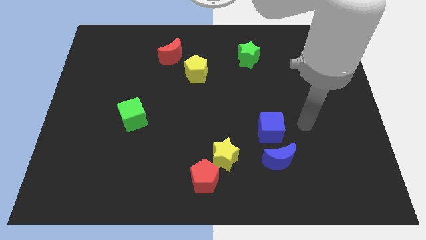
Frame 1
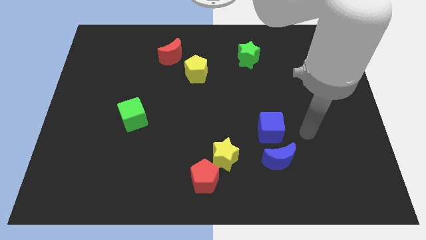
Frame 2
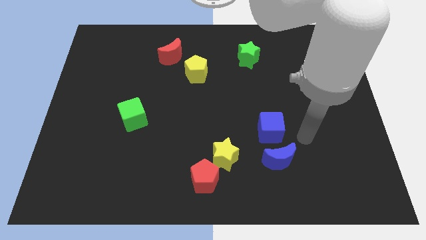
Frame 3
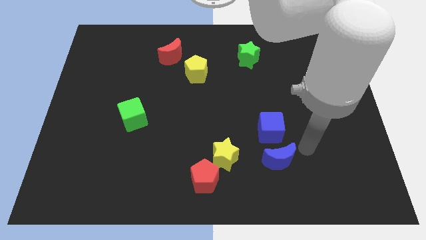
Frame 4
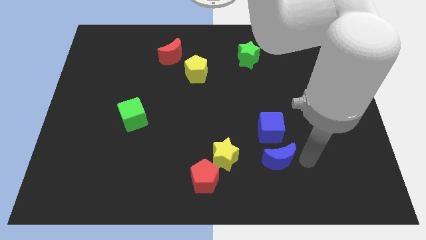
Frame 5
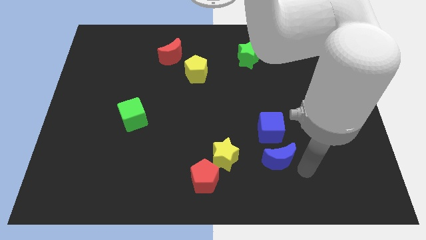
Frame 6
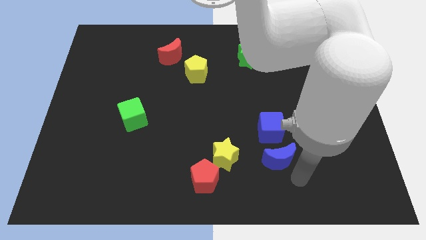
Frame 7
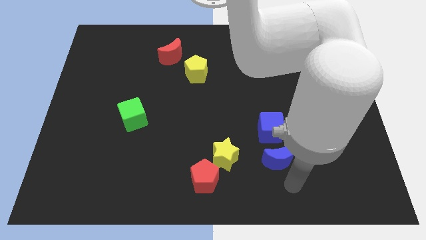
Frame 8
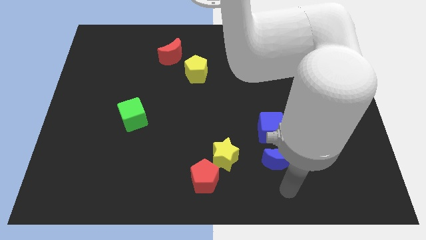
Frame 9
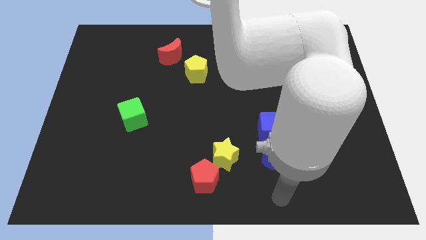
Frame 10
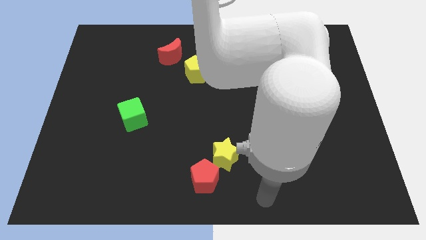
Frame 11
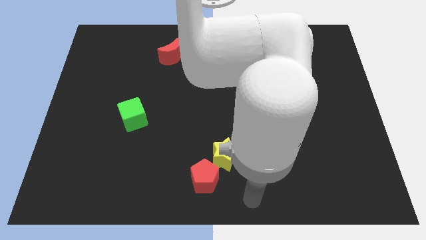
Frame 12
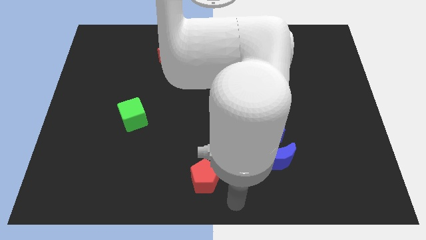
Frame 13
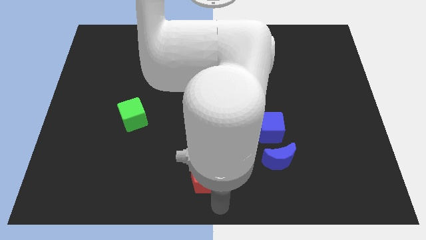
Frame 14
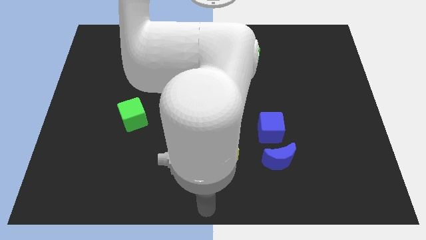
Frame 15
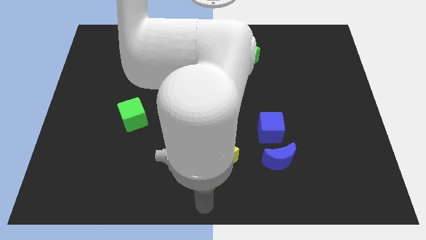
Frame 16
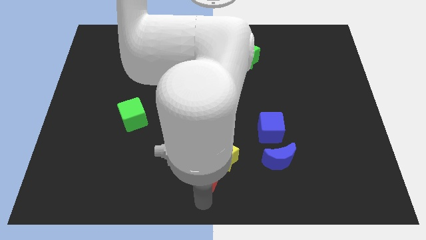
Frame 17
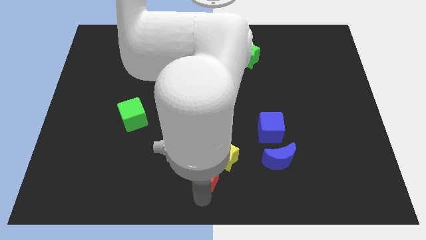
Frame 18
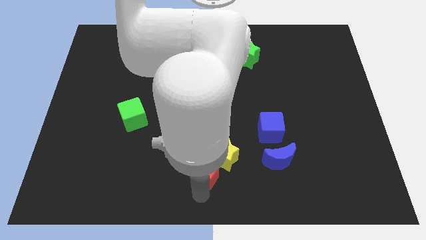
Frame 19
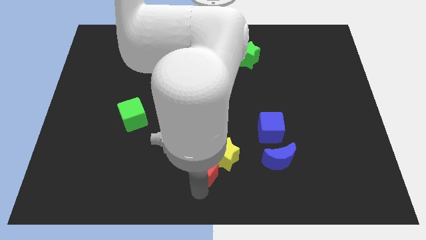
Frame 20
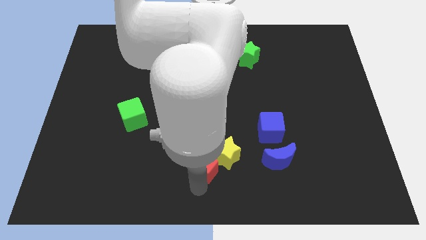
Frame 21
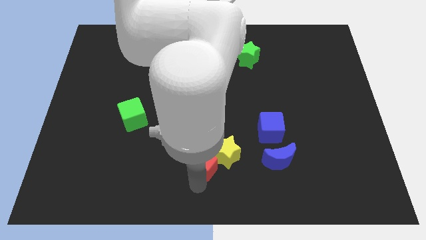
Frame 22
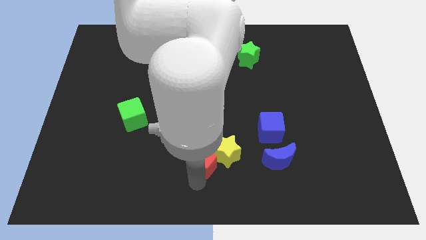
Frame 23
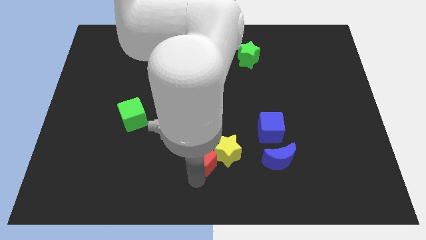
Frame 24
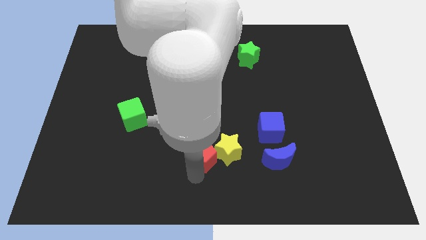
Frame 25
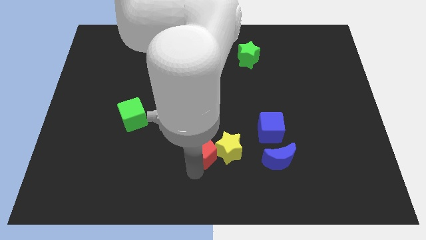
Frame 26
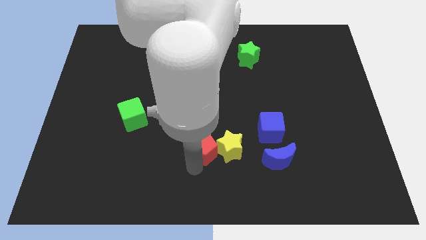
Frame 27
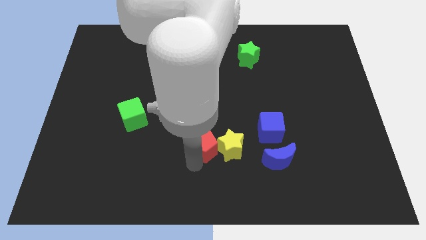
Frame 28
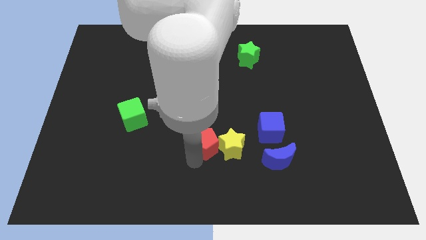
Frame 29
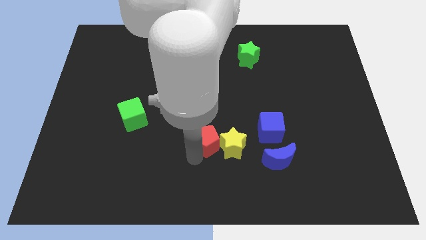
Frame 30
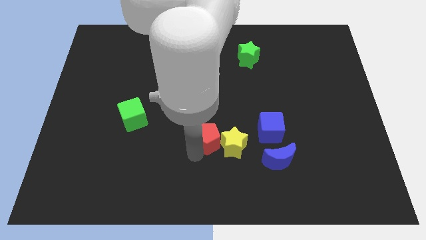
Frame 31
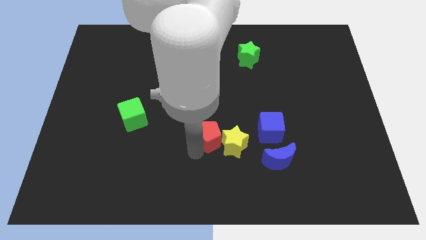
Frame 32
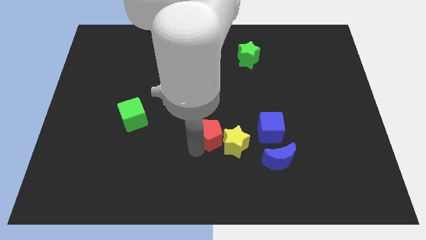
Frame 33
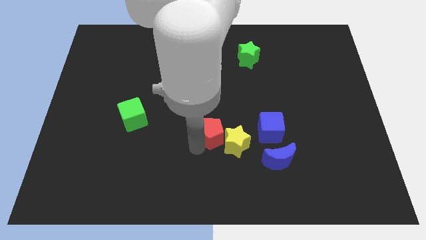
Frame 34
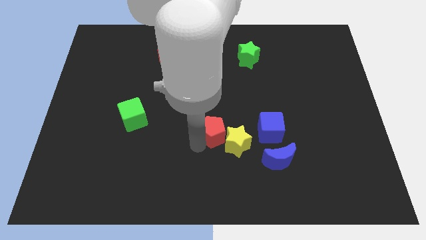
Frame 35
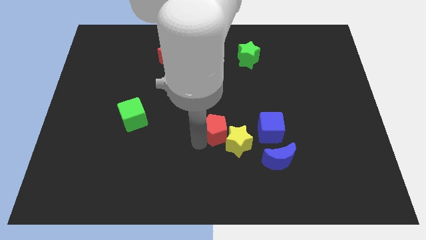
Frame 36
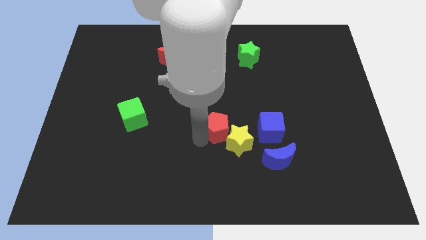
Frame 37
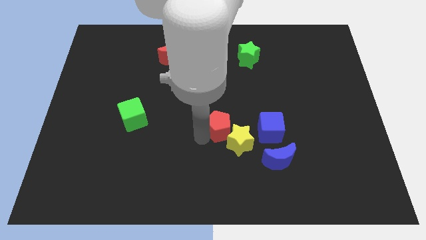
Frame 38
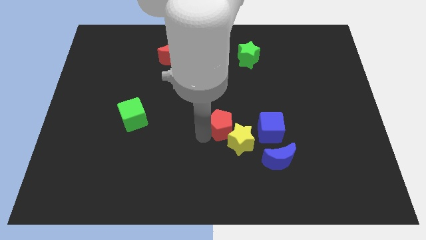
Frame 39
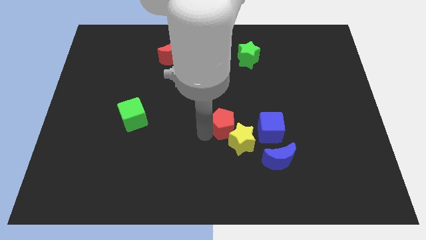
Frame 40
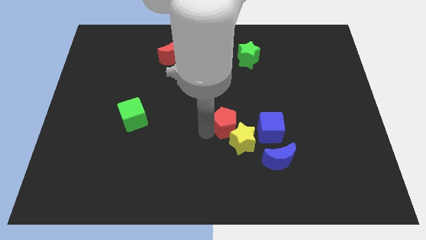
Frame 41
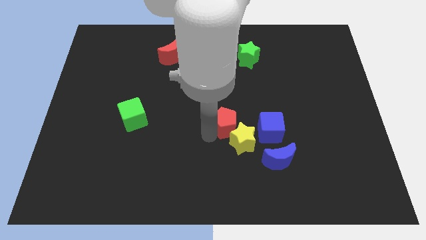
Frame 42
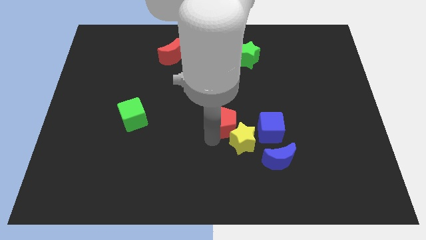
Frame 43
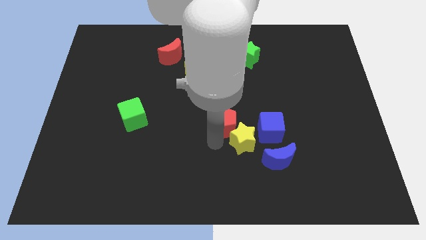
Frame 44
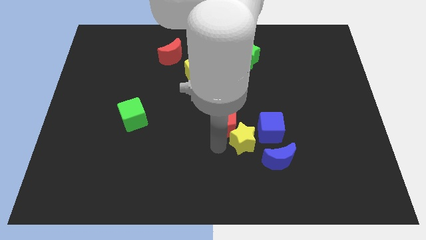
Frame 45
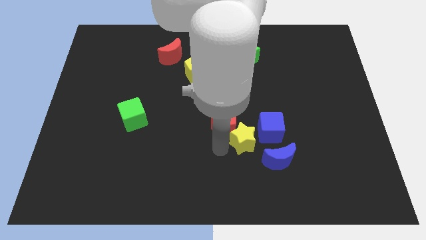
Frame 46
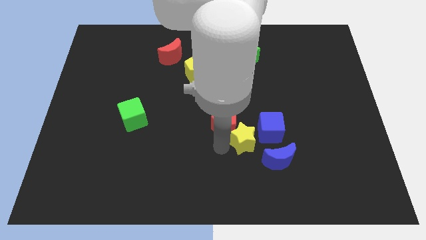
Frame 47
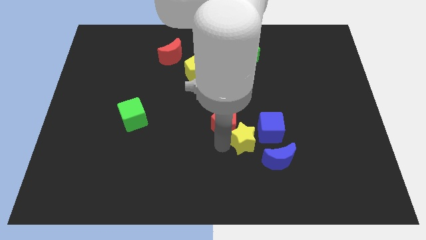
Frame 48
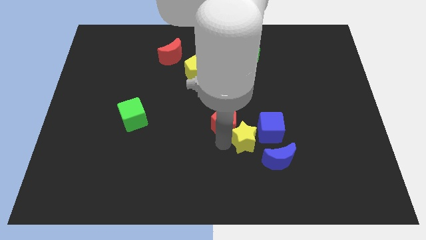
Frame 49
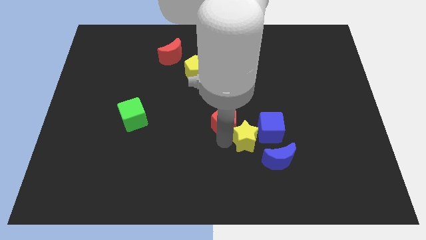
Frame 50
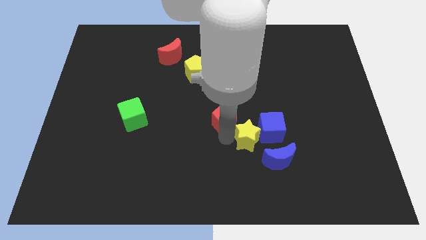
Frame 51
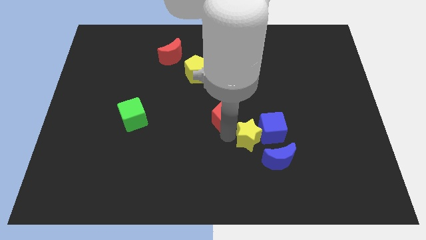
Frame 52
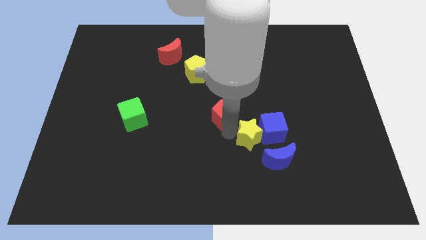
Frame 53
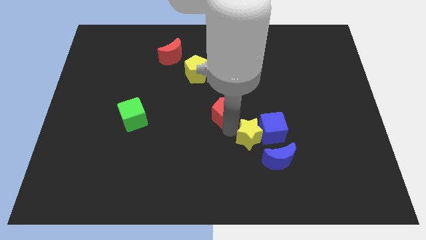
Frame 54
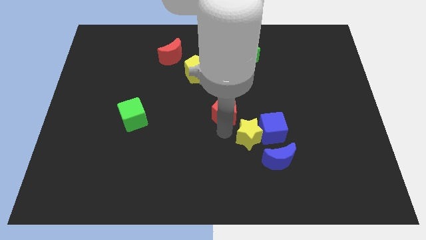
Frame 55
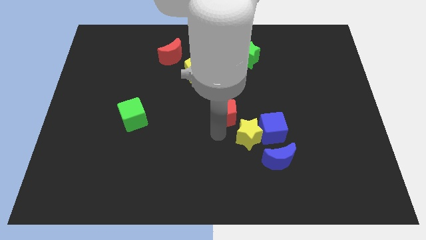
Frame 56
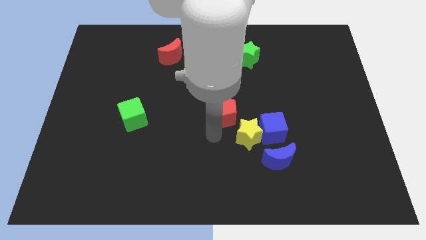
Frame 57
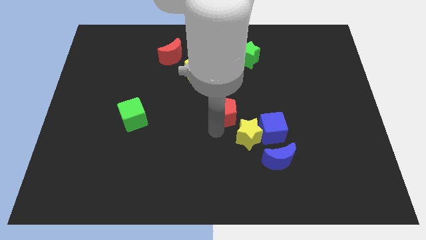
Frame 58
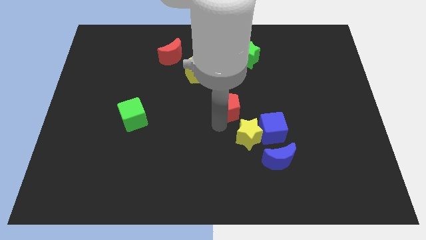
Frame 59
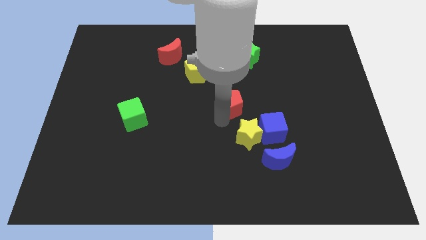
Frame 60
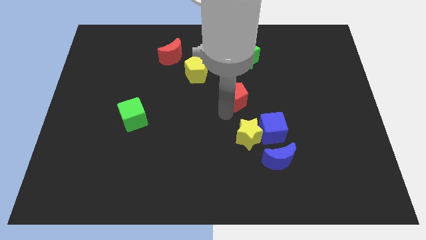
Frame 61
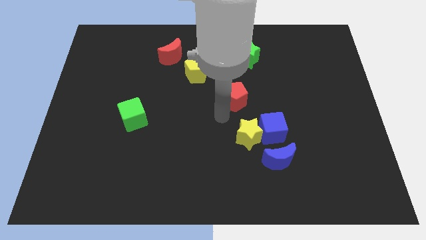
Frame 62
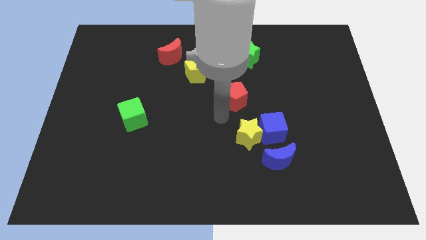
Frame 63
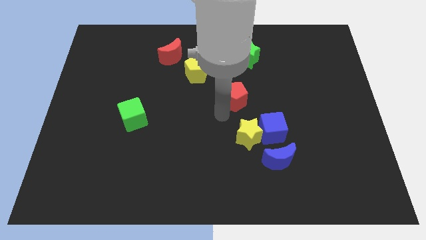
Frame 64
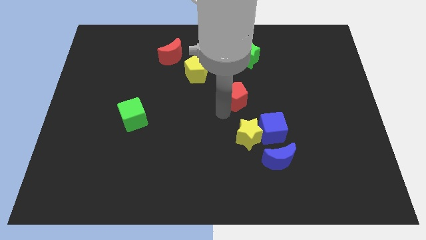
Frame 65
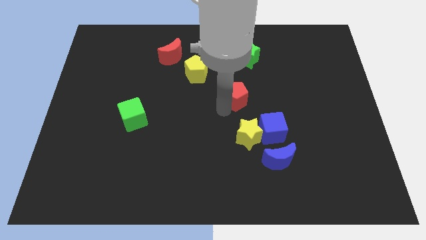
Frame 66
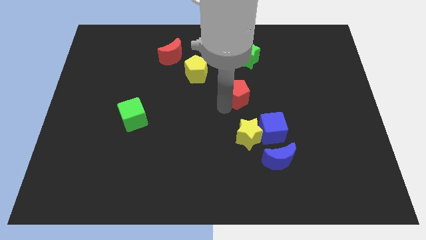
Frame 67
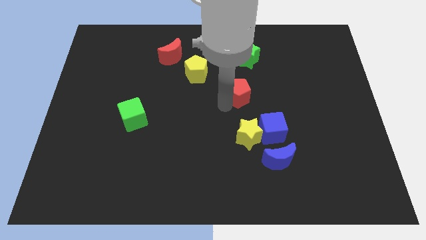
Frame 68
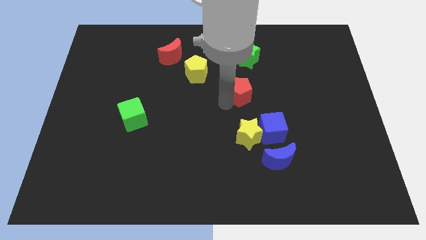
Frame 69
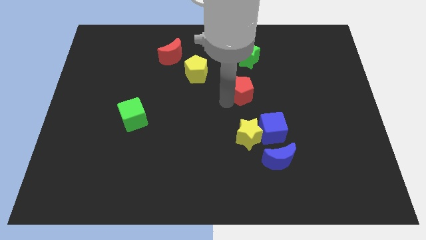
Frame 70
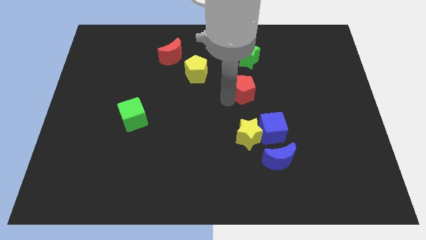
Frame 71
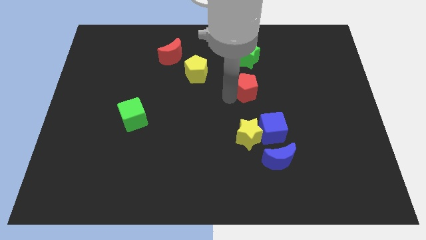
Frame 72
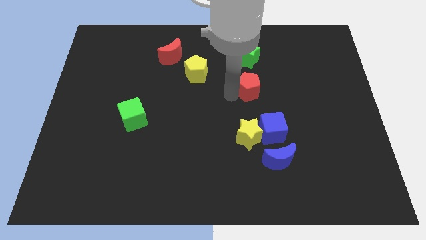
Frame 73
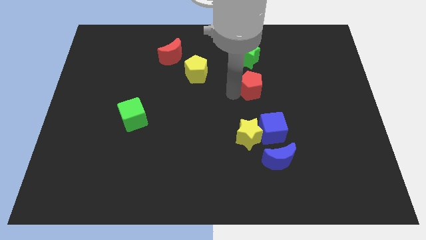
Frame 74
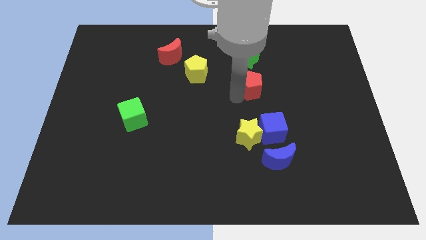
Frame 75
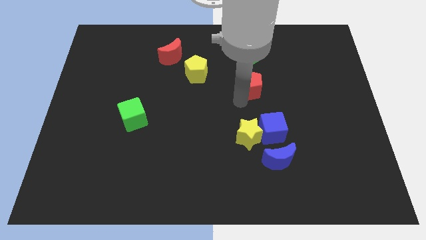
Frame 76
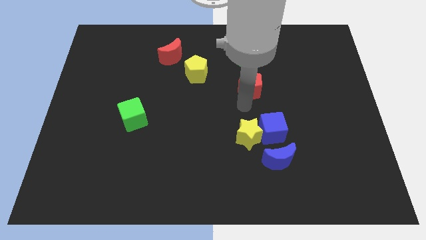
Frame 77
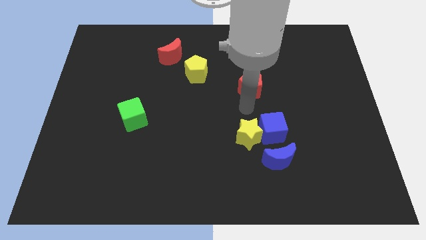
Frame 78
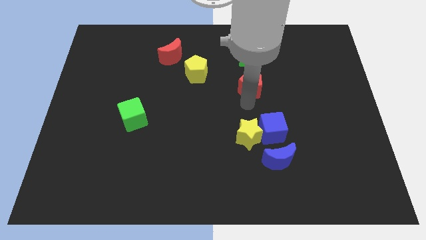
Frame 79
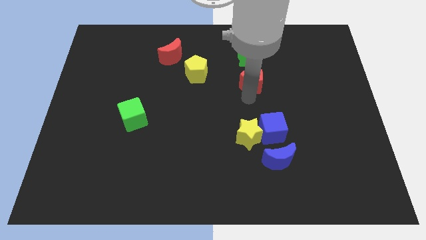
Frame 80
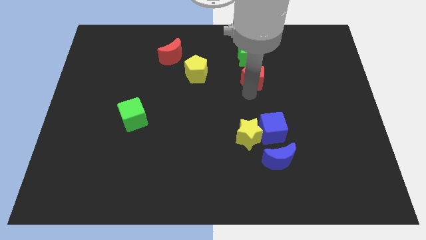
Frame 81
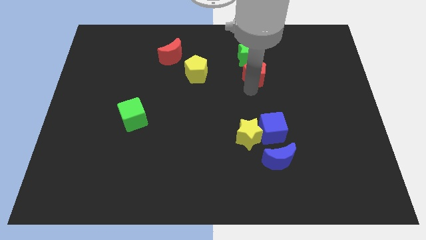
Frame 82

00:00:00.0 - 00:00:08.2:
slide the red pentagon close to the green star
